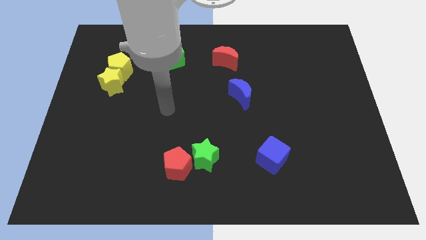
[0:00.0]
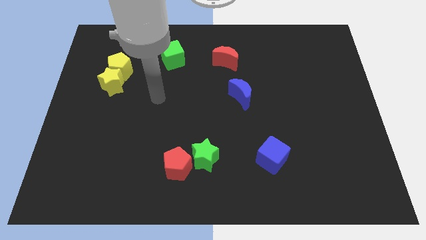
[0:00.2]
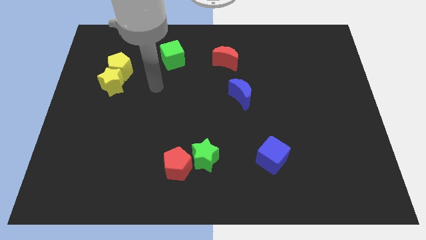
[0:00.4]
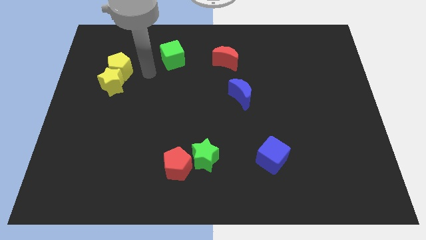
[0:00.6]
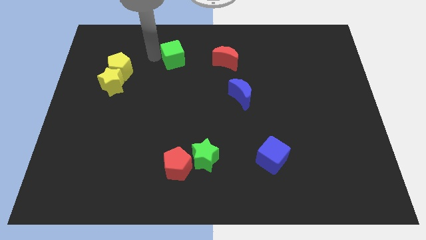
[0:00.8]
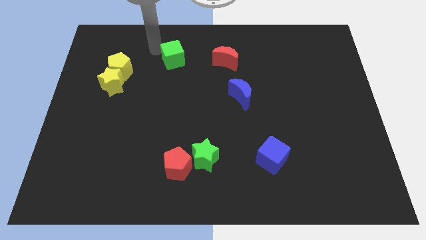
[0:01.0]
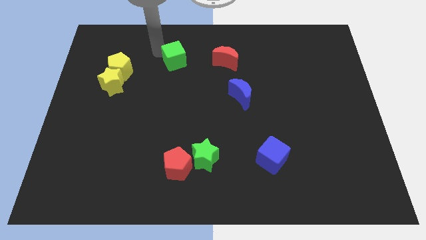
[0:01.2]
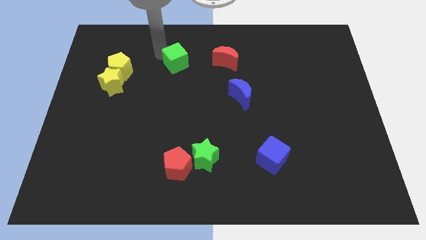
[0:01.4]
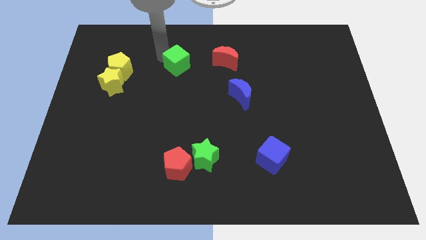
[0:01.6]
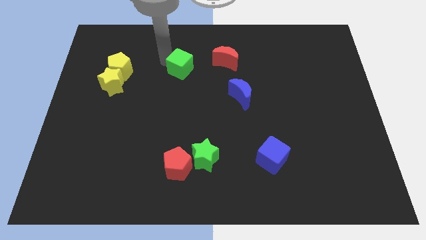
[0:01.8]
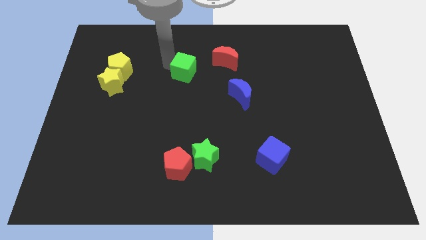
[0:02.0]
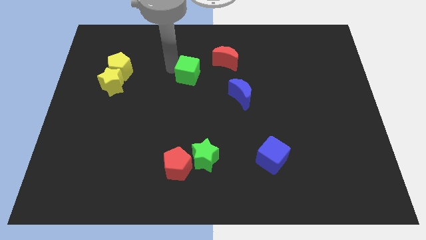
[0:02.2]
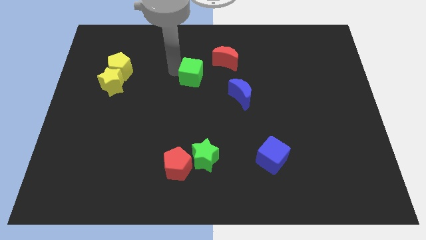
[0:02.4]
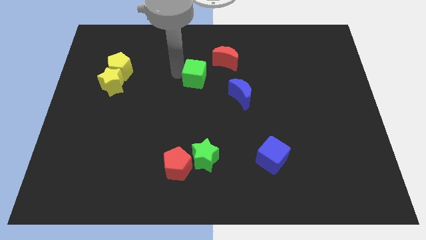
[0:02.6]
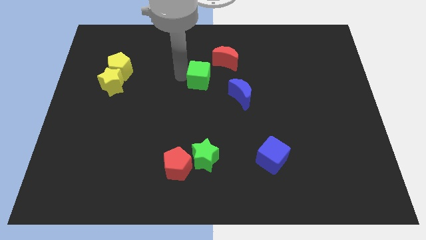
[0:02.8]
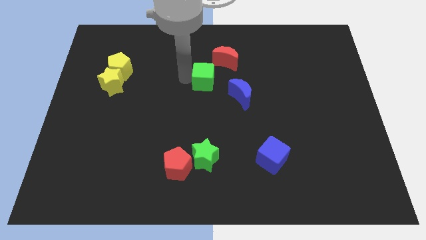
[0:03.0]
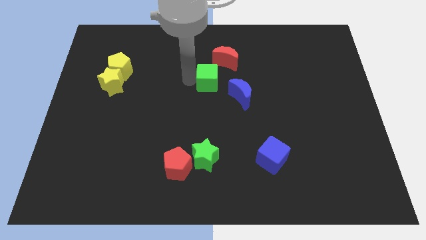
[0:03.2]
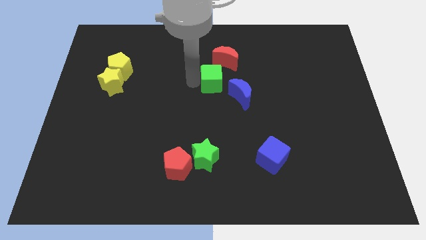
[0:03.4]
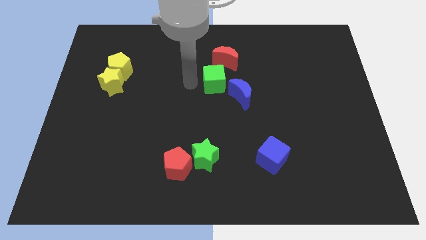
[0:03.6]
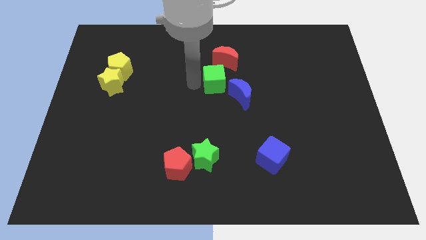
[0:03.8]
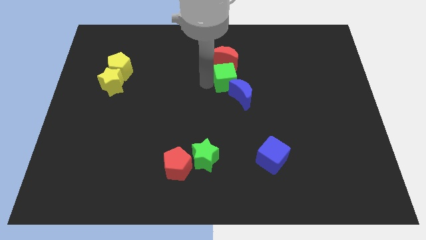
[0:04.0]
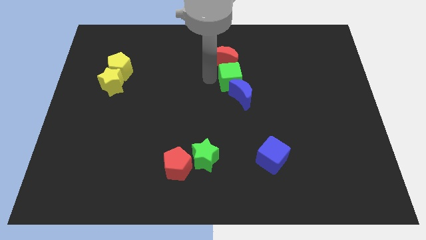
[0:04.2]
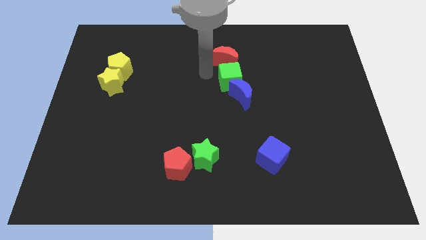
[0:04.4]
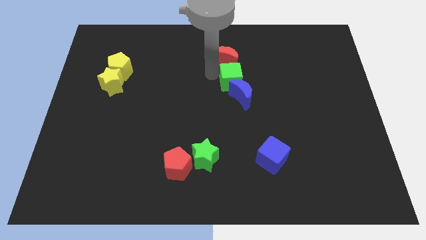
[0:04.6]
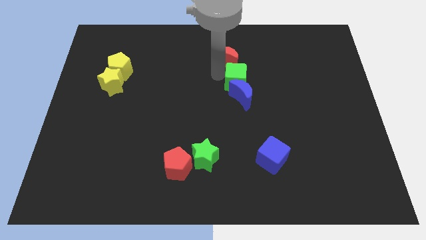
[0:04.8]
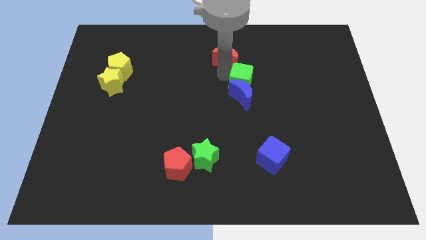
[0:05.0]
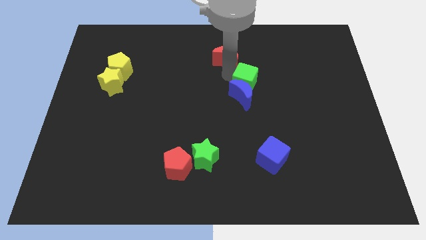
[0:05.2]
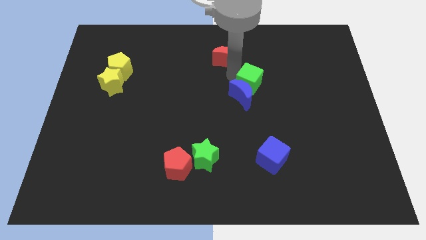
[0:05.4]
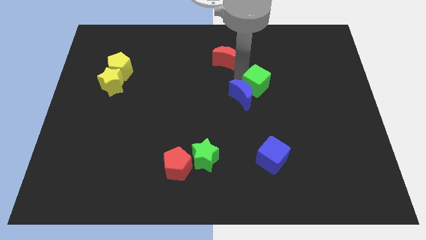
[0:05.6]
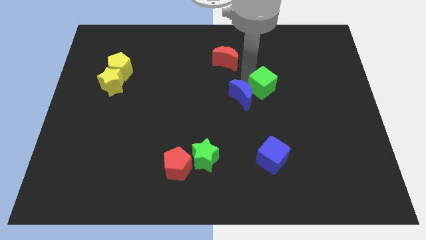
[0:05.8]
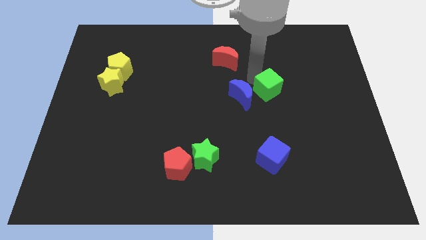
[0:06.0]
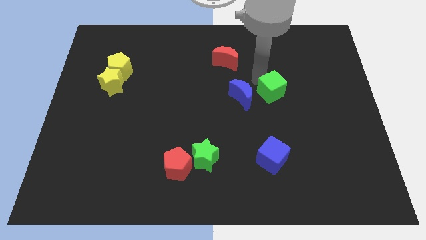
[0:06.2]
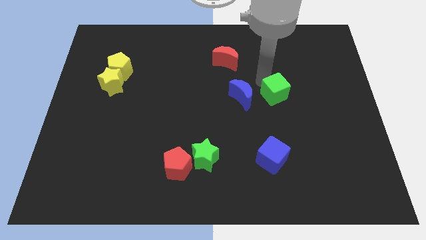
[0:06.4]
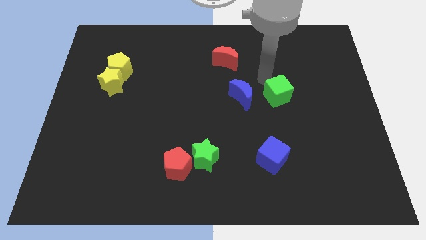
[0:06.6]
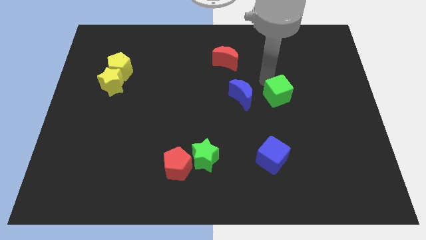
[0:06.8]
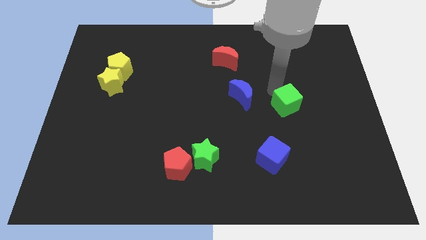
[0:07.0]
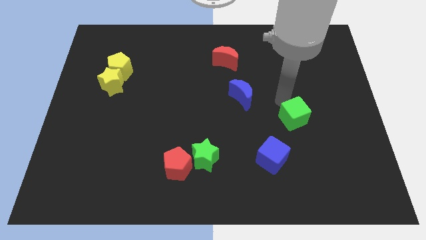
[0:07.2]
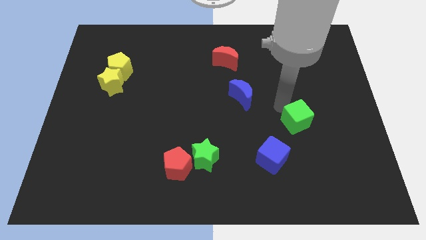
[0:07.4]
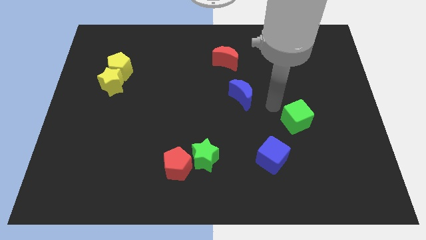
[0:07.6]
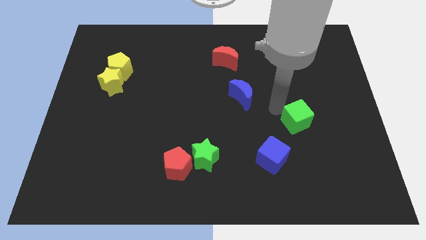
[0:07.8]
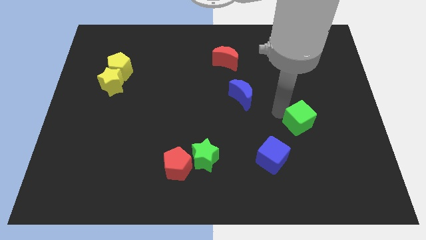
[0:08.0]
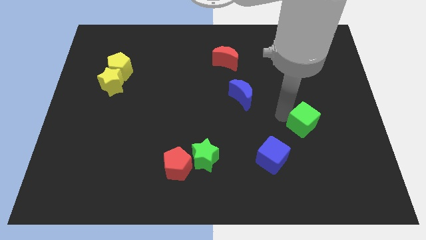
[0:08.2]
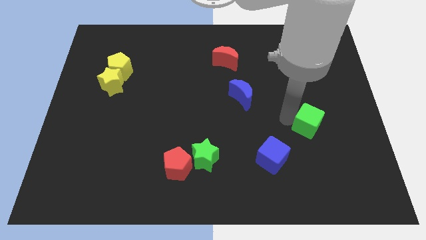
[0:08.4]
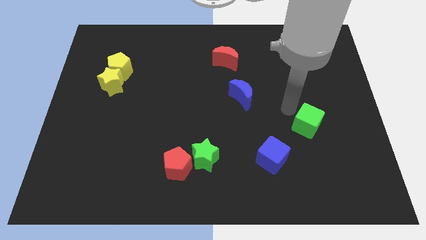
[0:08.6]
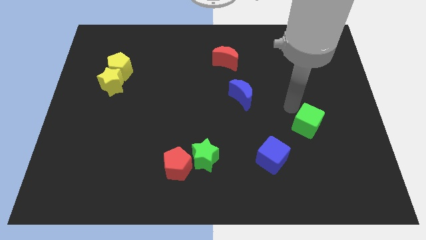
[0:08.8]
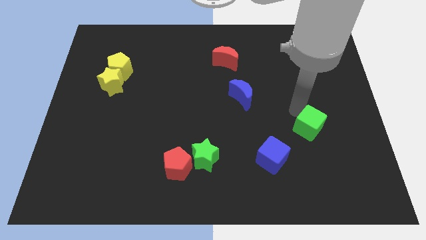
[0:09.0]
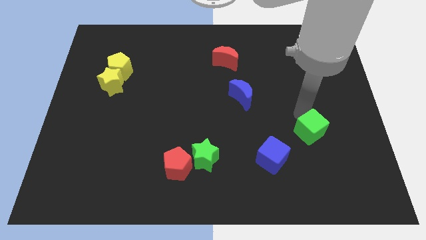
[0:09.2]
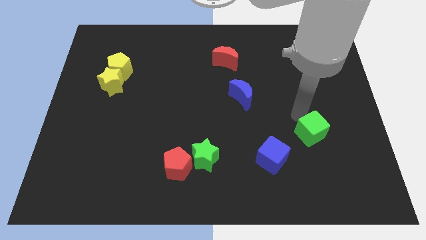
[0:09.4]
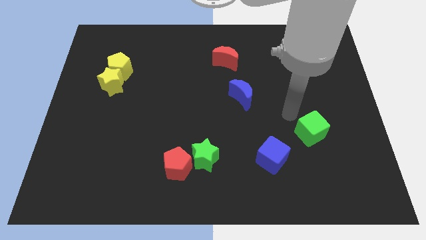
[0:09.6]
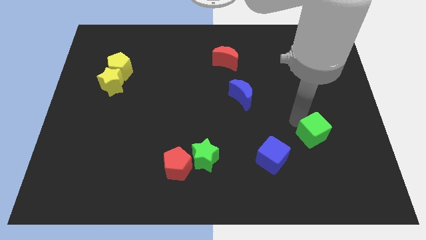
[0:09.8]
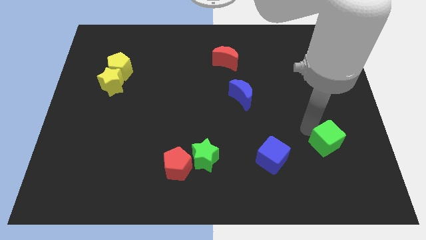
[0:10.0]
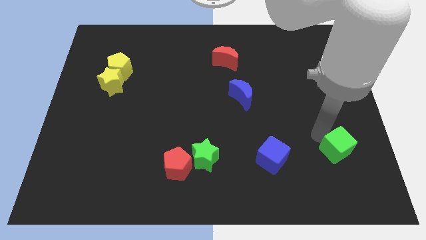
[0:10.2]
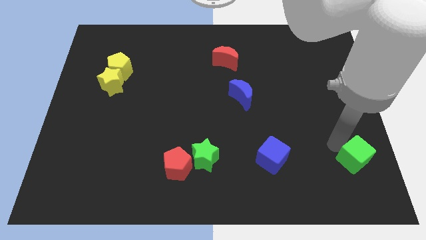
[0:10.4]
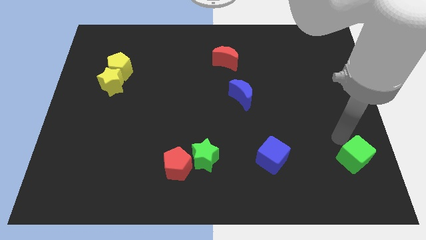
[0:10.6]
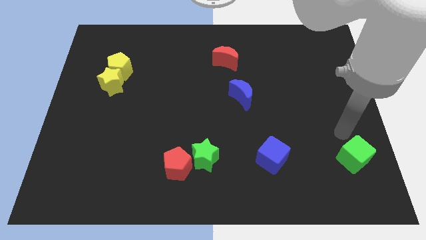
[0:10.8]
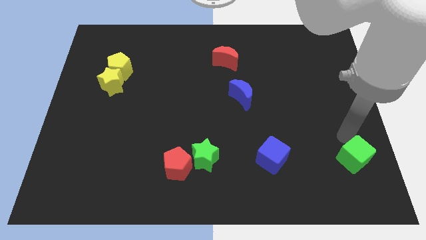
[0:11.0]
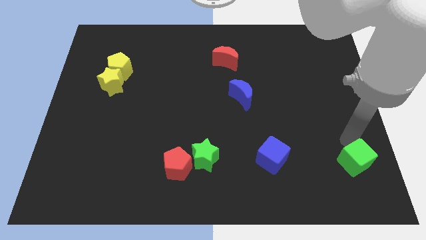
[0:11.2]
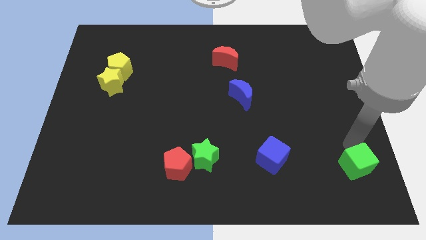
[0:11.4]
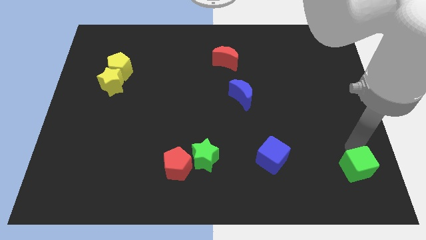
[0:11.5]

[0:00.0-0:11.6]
slide the green cube to the bottom right of the board

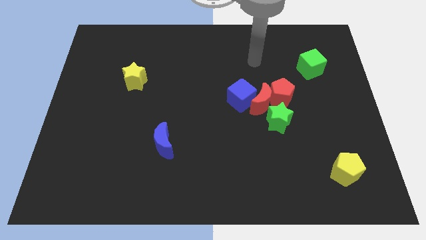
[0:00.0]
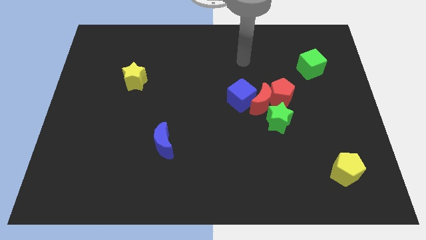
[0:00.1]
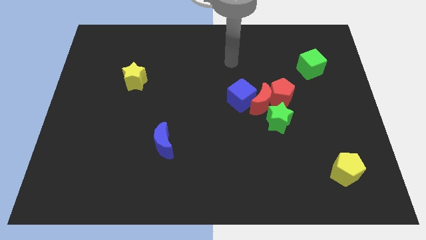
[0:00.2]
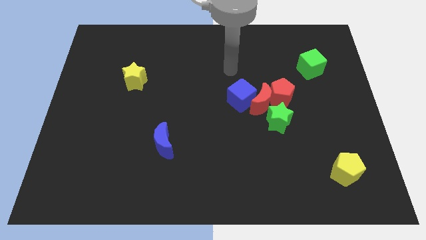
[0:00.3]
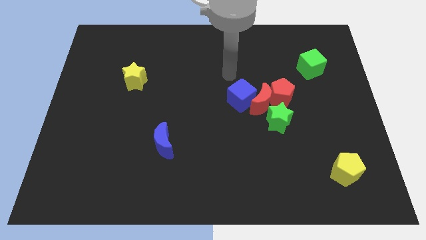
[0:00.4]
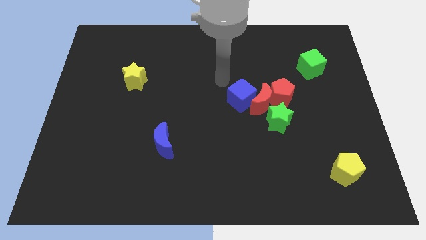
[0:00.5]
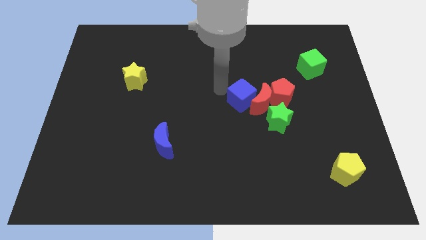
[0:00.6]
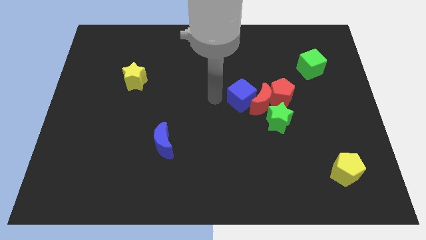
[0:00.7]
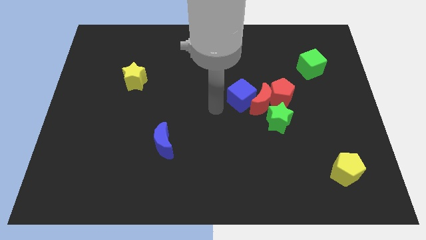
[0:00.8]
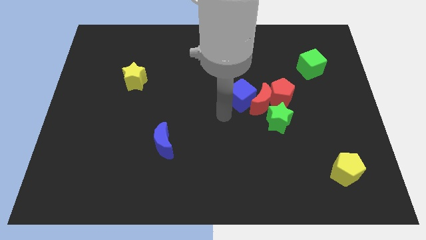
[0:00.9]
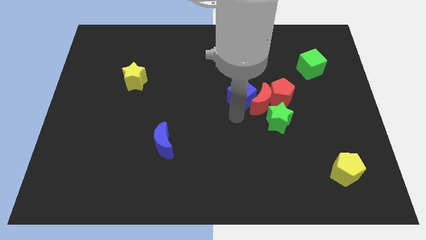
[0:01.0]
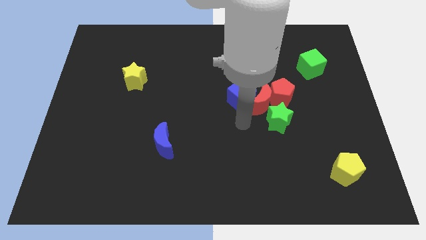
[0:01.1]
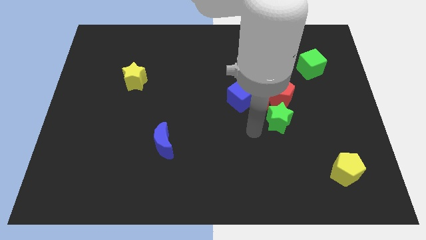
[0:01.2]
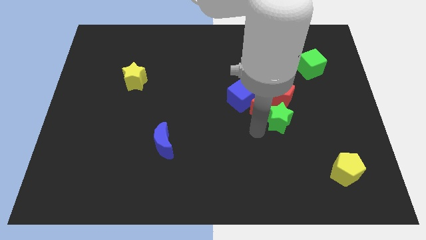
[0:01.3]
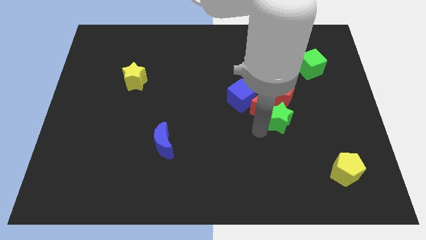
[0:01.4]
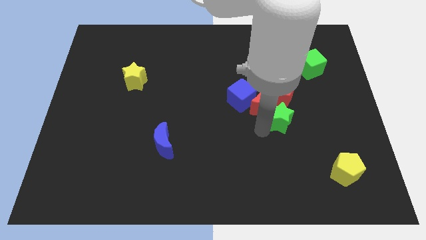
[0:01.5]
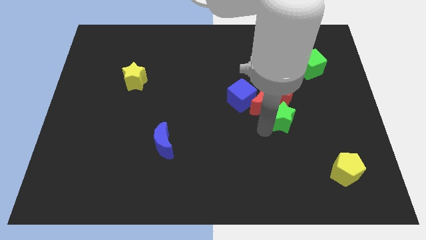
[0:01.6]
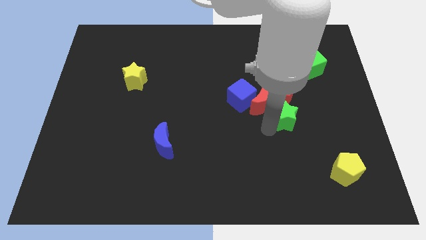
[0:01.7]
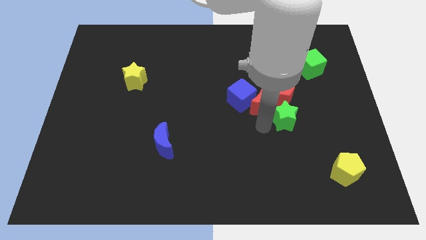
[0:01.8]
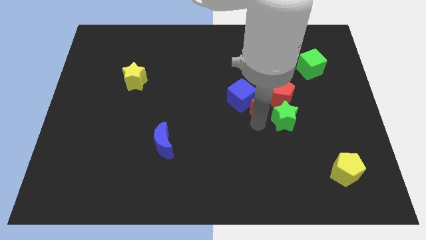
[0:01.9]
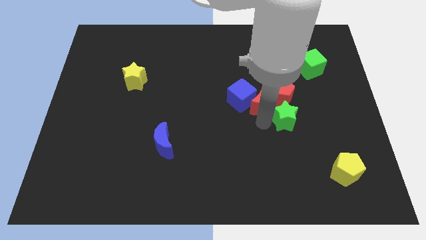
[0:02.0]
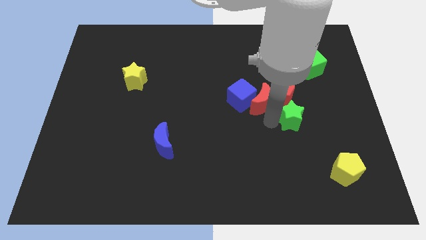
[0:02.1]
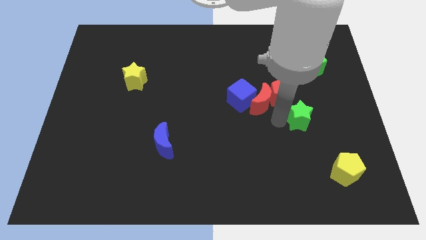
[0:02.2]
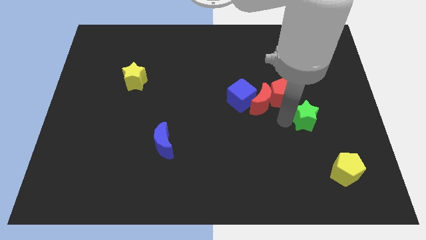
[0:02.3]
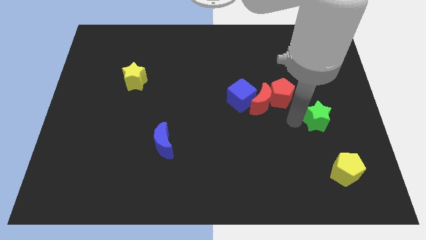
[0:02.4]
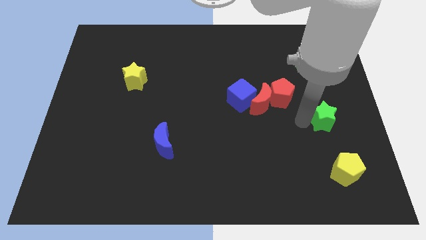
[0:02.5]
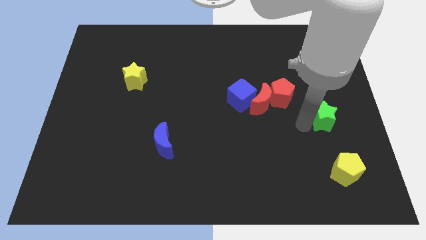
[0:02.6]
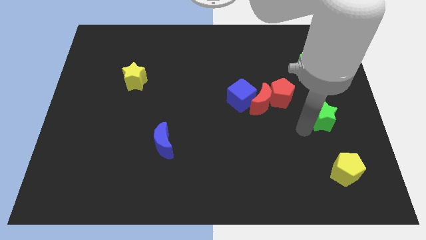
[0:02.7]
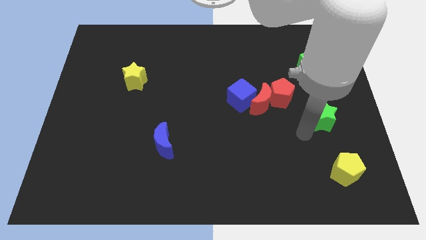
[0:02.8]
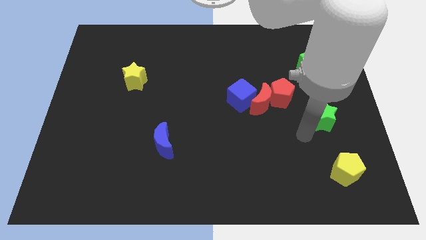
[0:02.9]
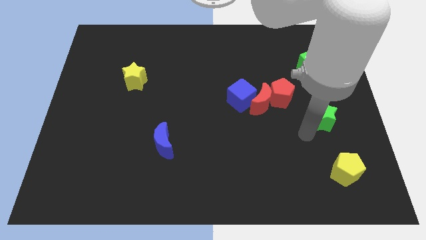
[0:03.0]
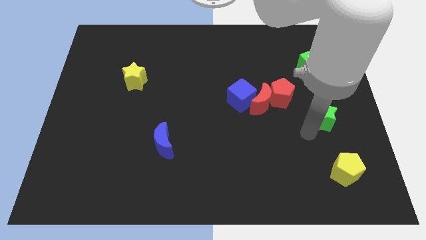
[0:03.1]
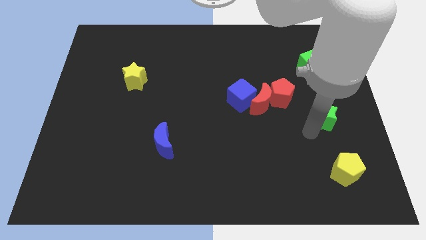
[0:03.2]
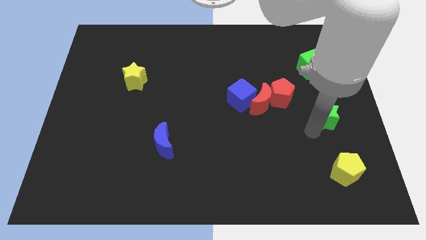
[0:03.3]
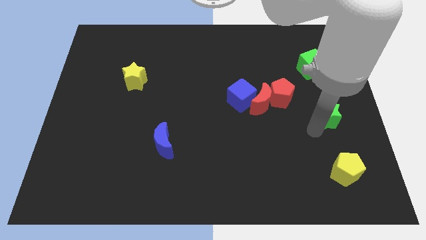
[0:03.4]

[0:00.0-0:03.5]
put the green star to the right side of the board
